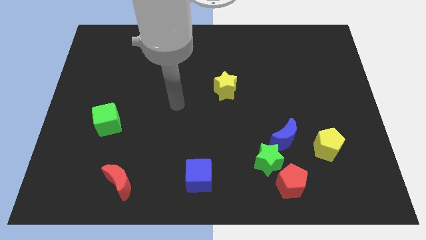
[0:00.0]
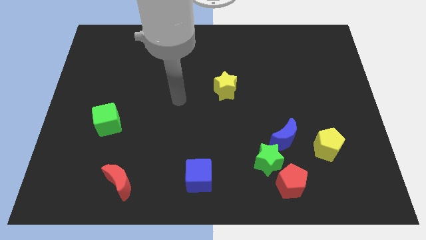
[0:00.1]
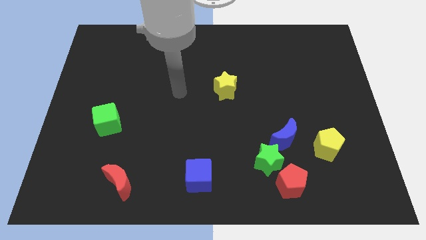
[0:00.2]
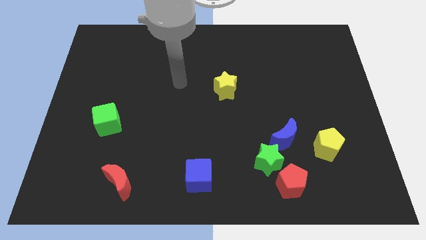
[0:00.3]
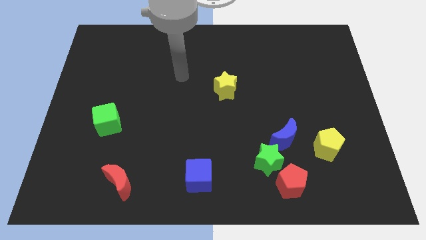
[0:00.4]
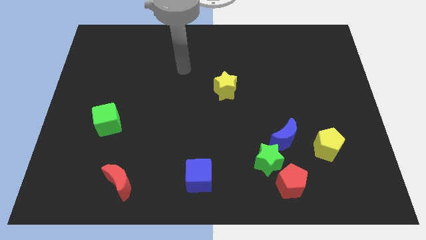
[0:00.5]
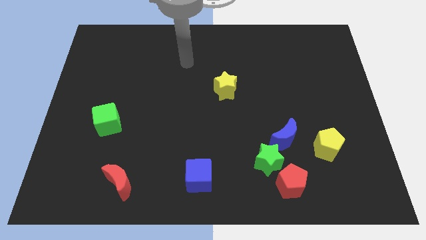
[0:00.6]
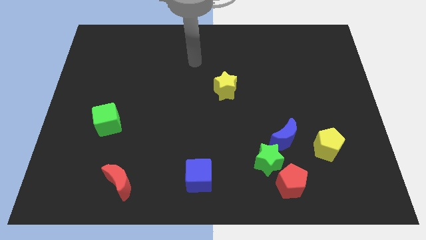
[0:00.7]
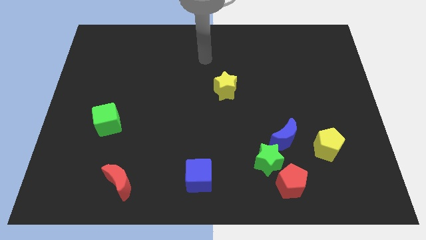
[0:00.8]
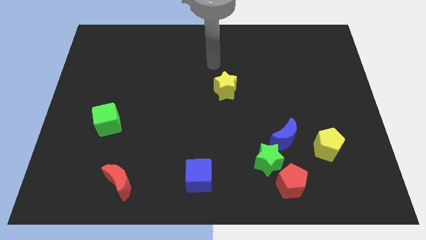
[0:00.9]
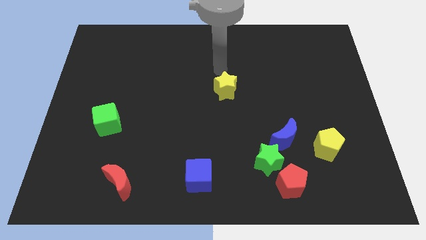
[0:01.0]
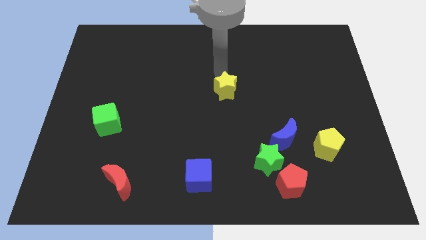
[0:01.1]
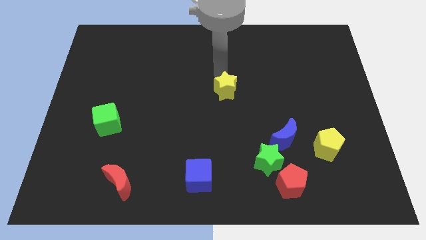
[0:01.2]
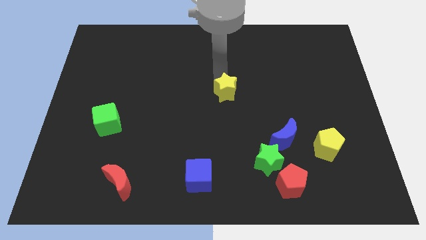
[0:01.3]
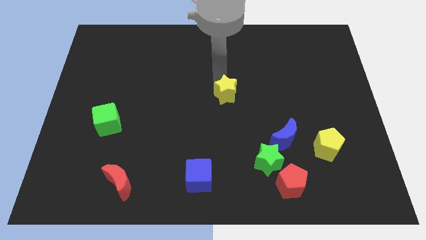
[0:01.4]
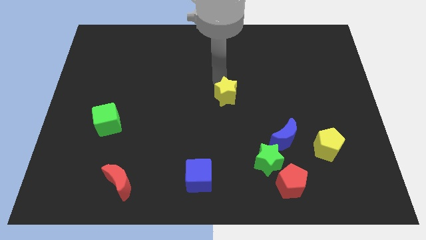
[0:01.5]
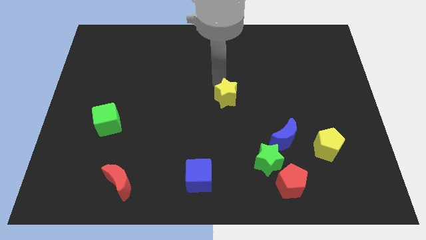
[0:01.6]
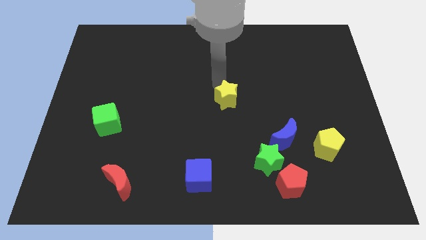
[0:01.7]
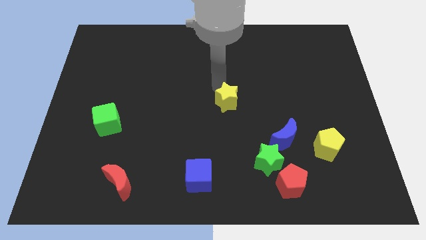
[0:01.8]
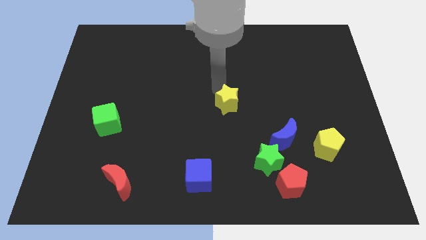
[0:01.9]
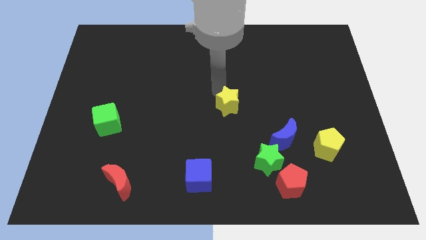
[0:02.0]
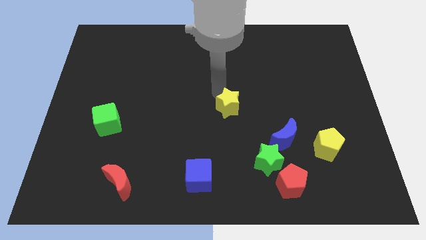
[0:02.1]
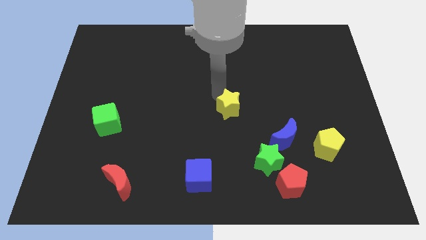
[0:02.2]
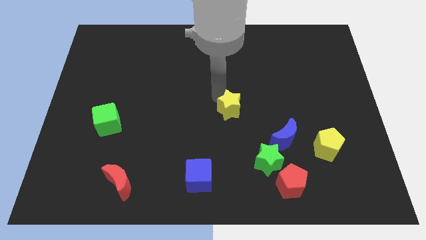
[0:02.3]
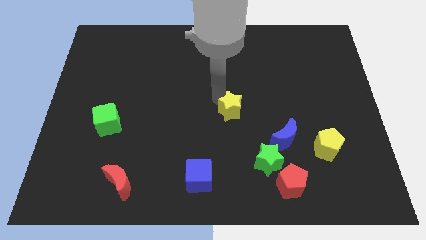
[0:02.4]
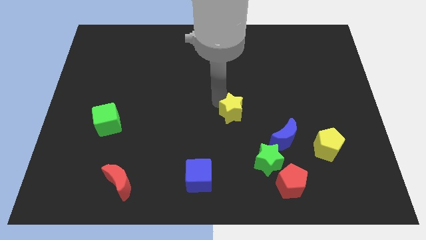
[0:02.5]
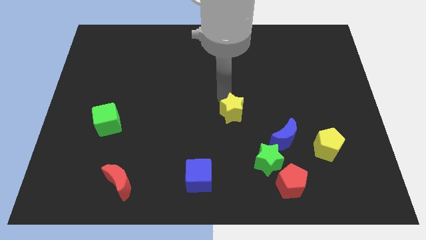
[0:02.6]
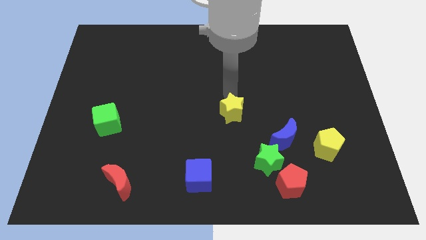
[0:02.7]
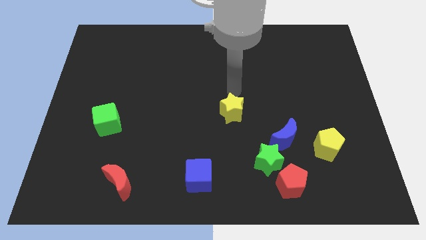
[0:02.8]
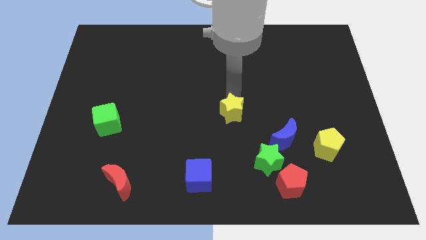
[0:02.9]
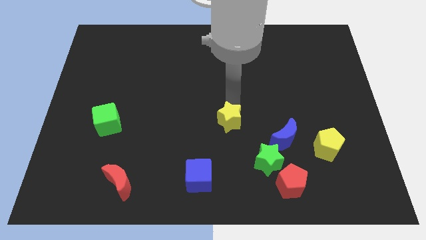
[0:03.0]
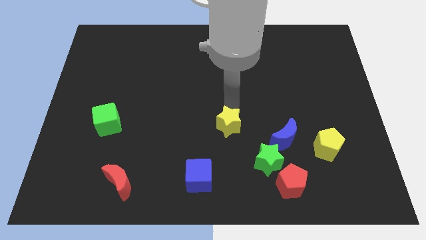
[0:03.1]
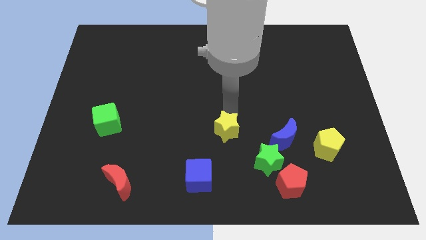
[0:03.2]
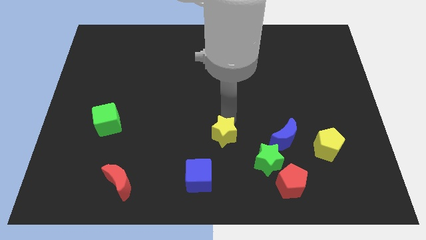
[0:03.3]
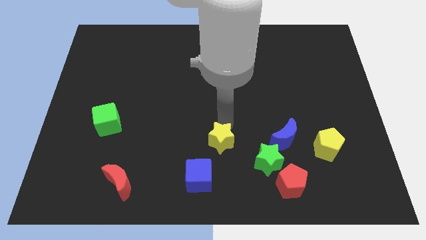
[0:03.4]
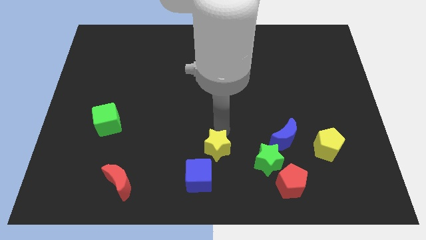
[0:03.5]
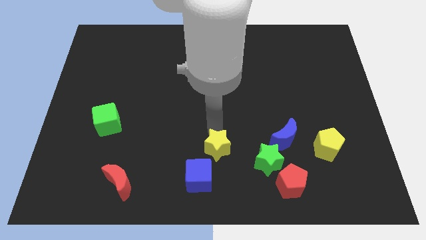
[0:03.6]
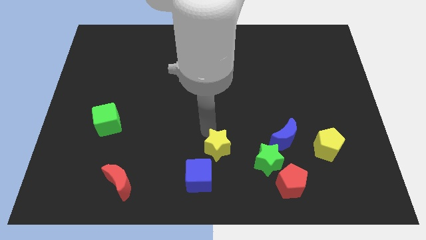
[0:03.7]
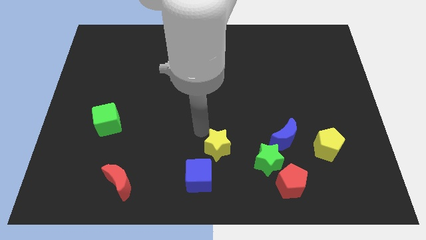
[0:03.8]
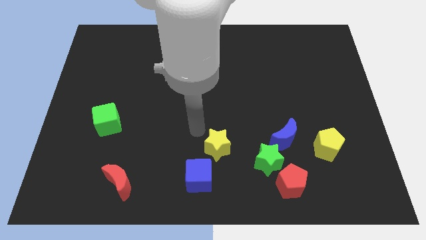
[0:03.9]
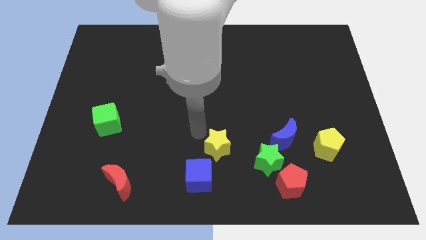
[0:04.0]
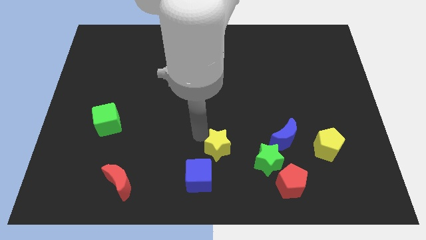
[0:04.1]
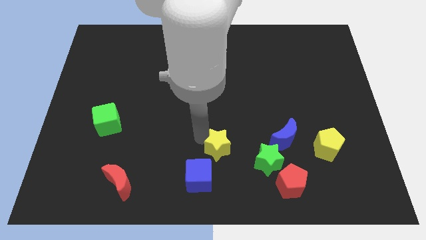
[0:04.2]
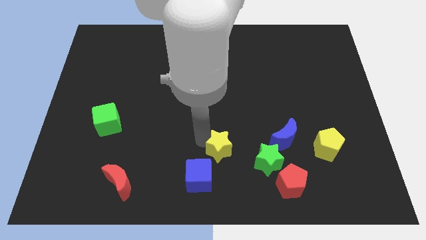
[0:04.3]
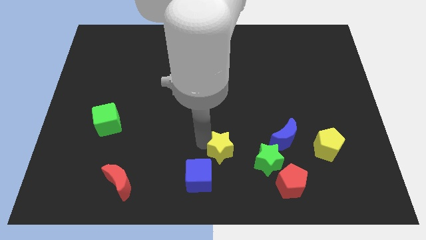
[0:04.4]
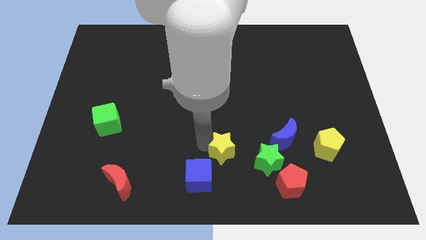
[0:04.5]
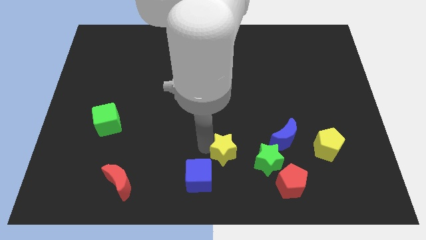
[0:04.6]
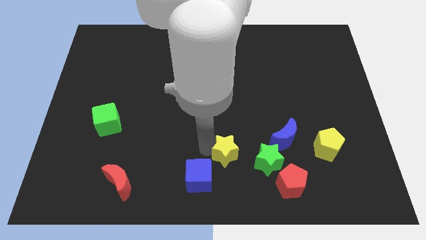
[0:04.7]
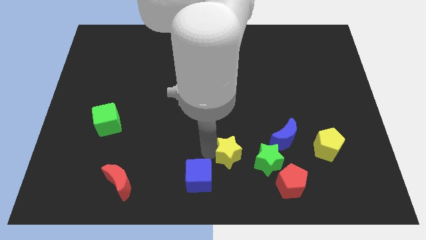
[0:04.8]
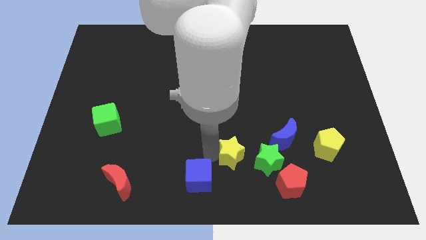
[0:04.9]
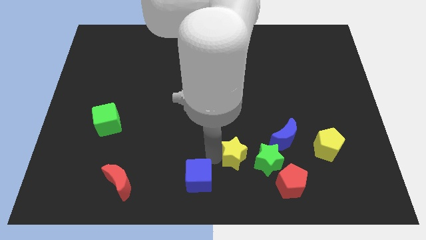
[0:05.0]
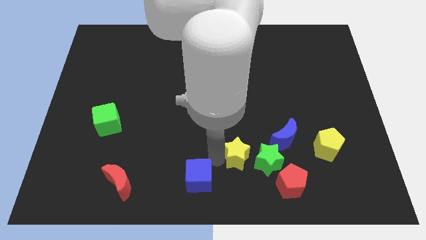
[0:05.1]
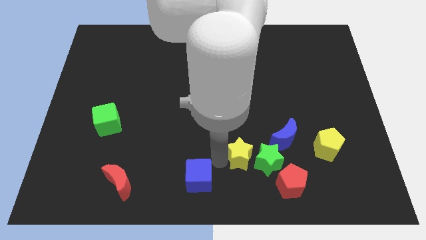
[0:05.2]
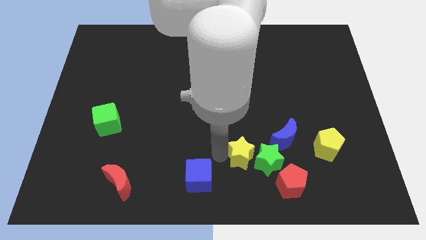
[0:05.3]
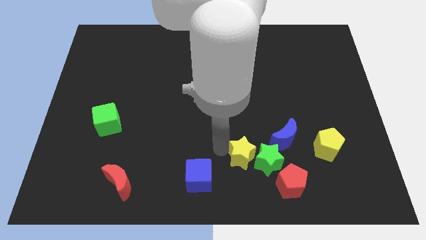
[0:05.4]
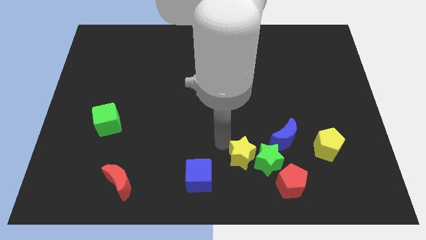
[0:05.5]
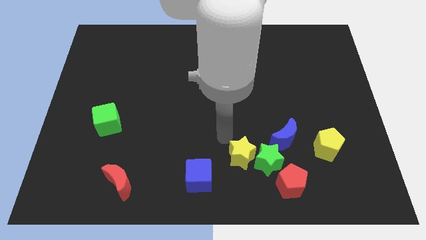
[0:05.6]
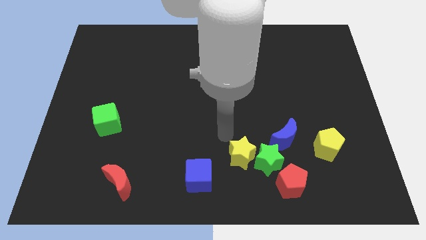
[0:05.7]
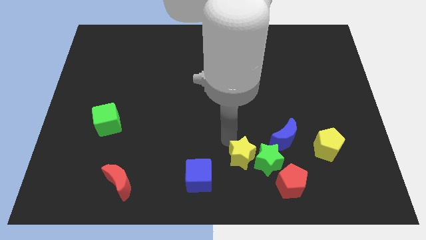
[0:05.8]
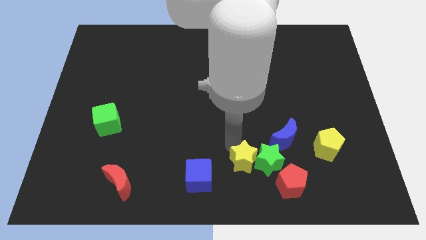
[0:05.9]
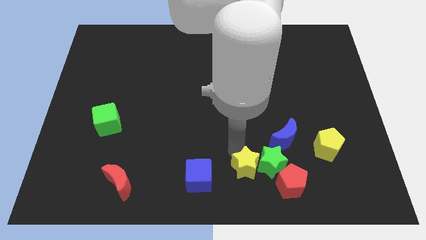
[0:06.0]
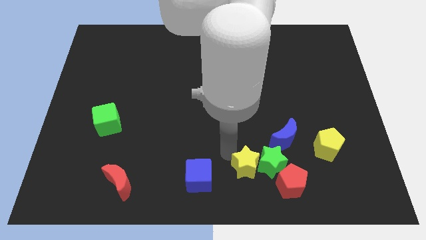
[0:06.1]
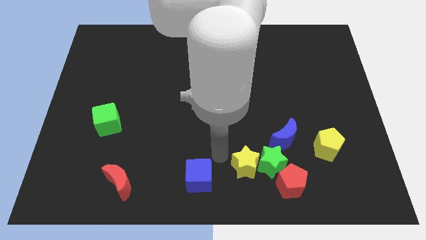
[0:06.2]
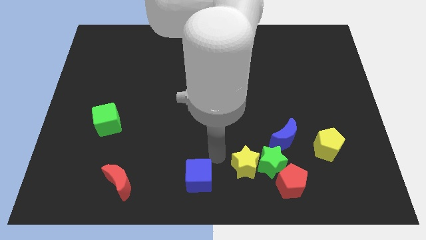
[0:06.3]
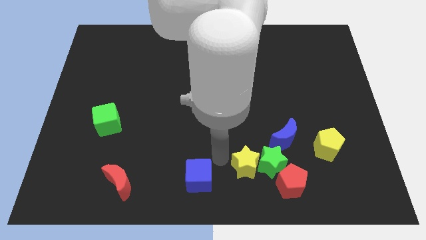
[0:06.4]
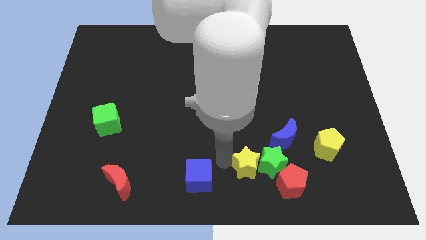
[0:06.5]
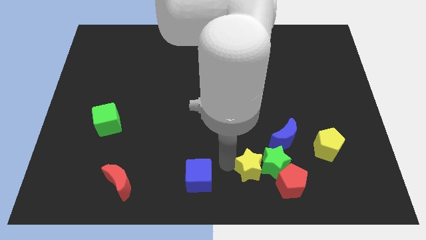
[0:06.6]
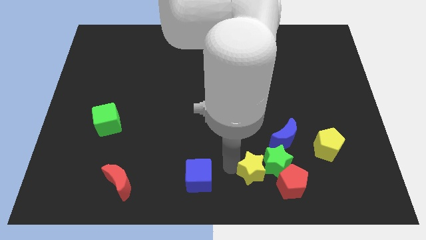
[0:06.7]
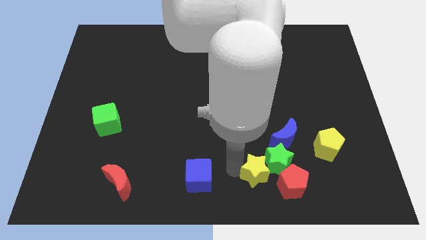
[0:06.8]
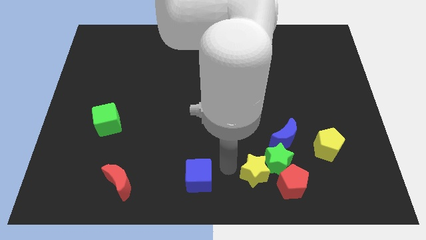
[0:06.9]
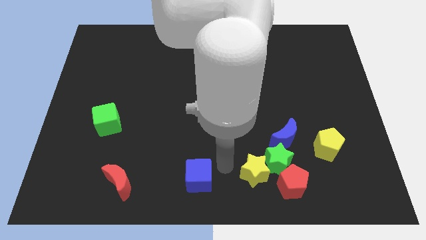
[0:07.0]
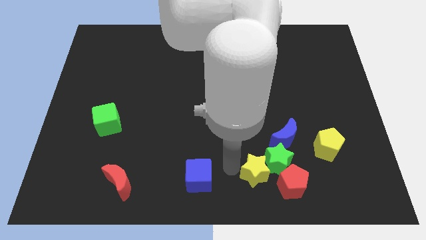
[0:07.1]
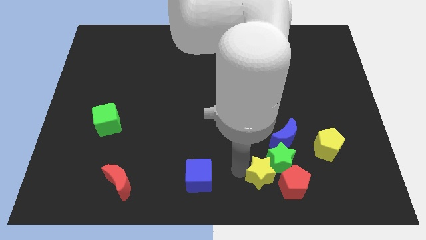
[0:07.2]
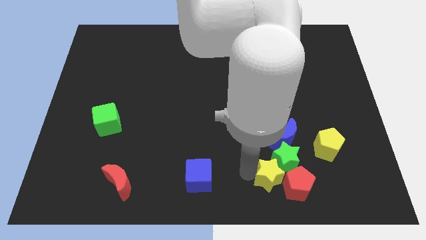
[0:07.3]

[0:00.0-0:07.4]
move the yellow star towards the red pentagon
